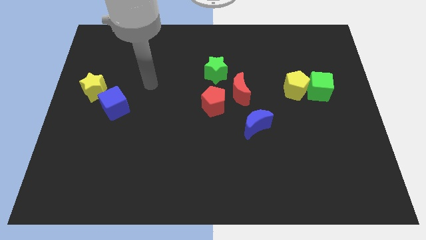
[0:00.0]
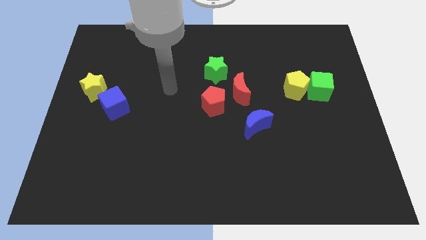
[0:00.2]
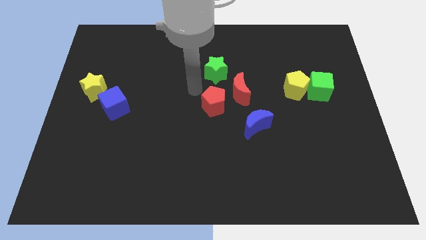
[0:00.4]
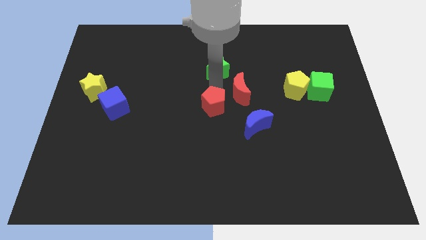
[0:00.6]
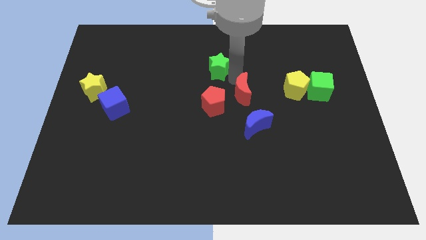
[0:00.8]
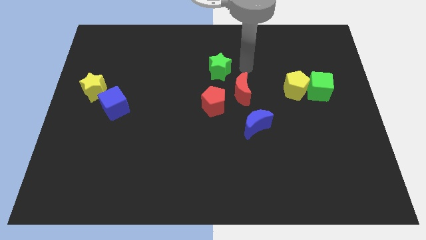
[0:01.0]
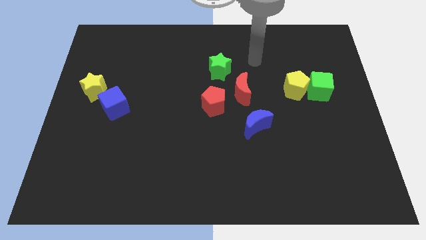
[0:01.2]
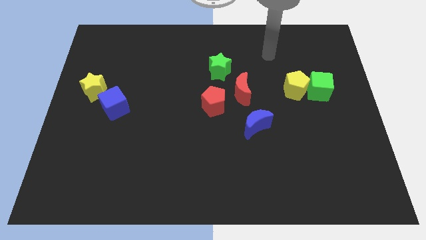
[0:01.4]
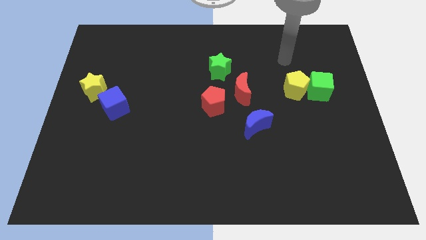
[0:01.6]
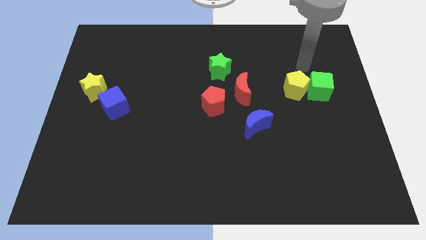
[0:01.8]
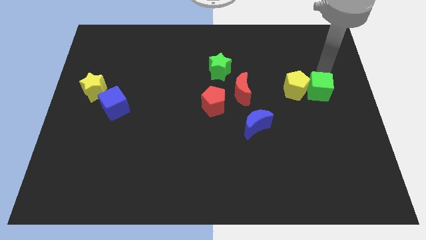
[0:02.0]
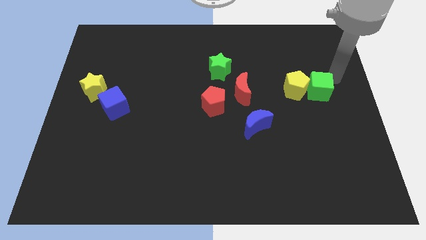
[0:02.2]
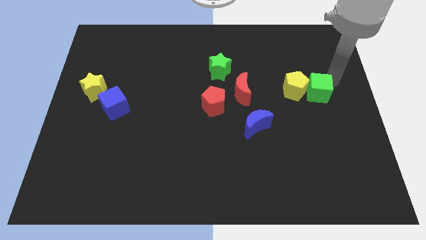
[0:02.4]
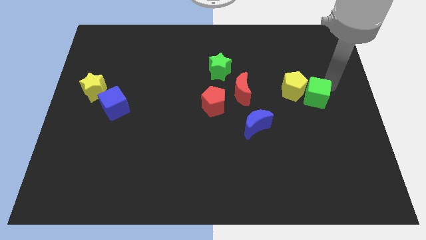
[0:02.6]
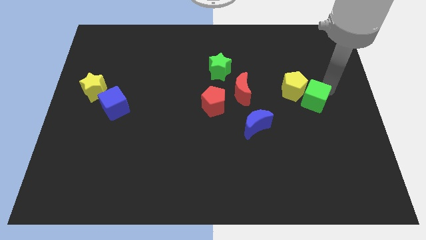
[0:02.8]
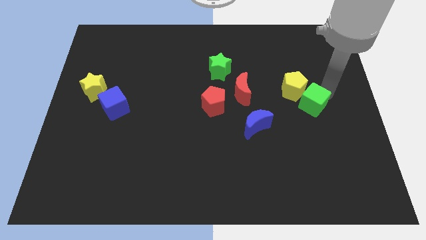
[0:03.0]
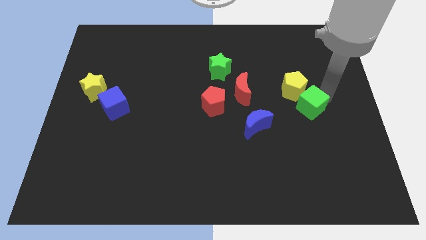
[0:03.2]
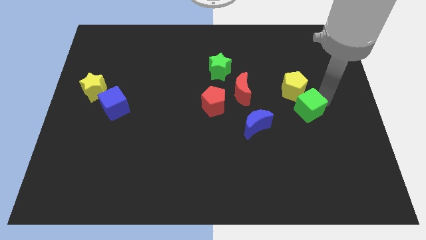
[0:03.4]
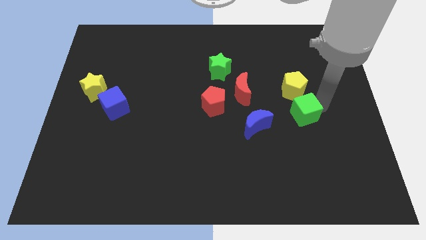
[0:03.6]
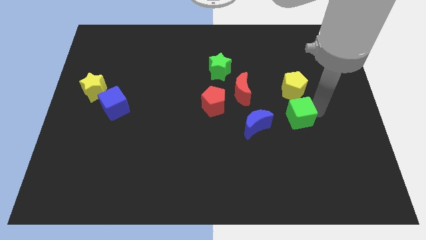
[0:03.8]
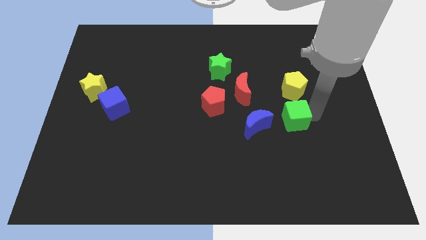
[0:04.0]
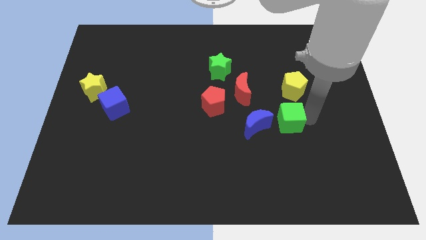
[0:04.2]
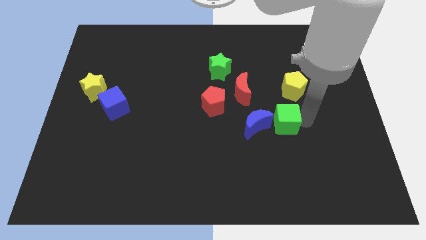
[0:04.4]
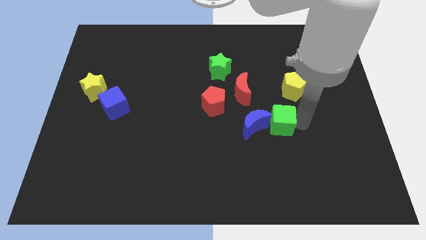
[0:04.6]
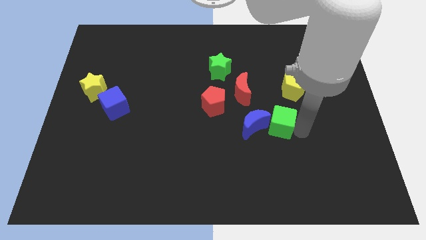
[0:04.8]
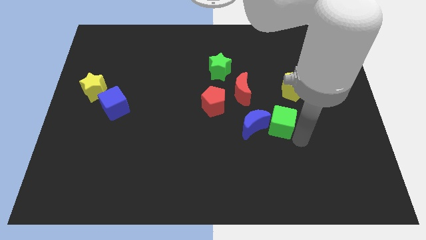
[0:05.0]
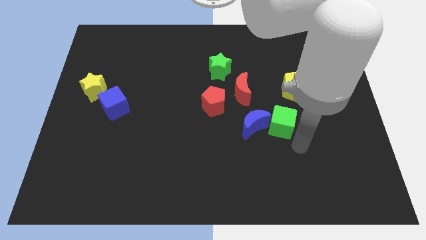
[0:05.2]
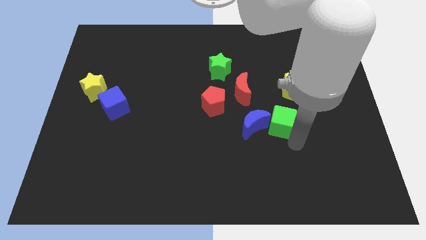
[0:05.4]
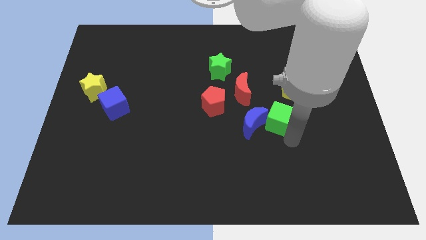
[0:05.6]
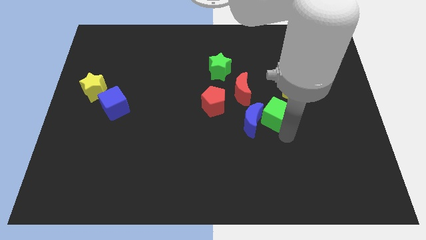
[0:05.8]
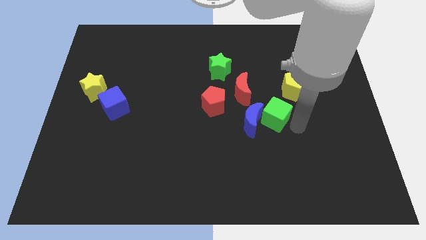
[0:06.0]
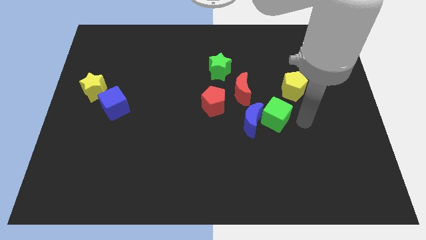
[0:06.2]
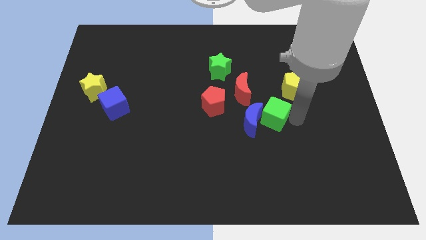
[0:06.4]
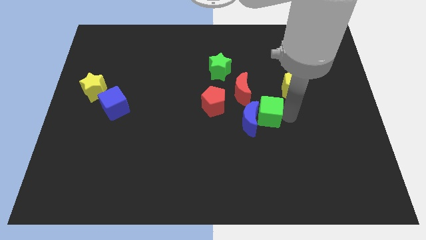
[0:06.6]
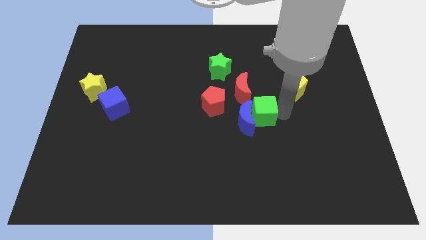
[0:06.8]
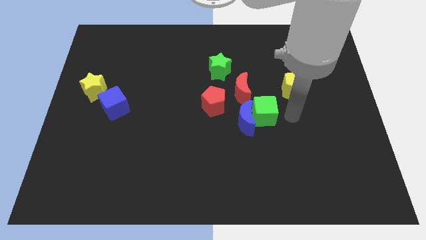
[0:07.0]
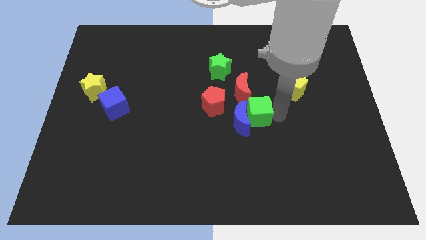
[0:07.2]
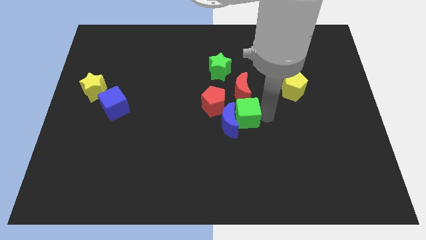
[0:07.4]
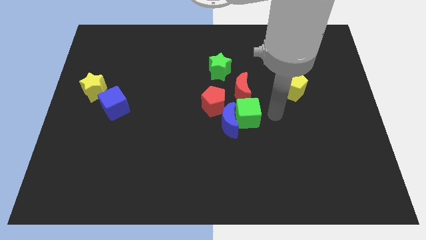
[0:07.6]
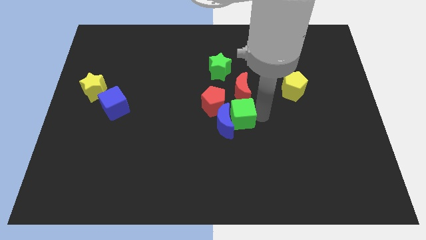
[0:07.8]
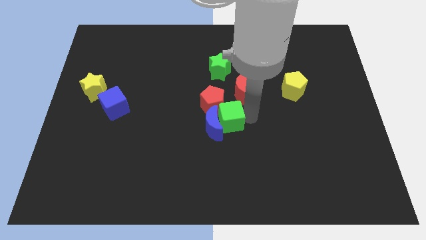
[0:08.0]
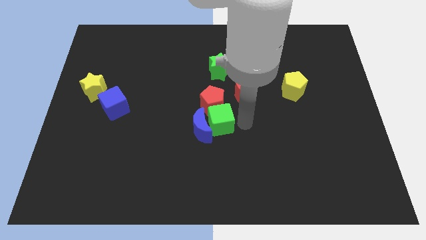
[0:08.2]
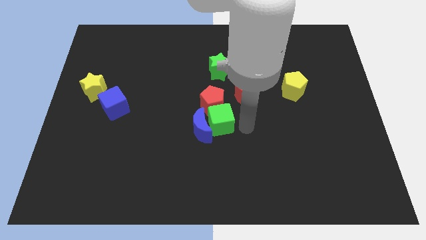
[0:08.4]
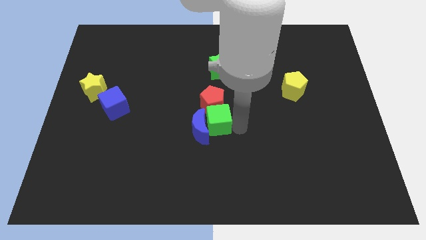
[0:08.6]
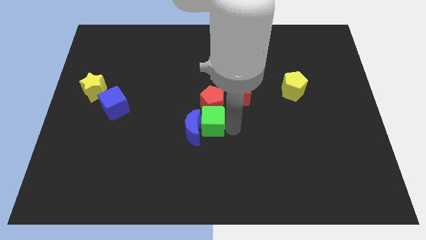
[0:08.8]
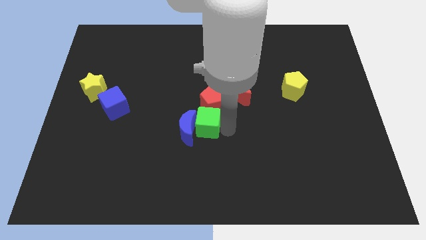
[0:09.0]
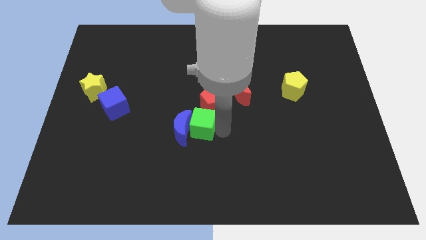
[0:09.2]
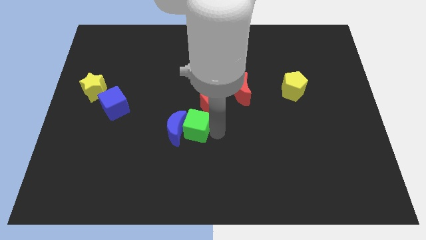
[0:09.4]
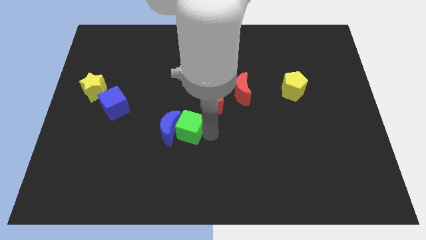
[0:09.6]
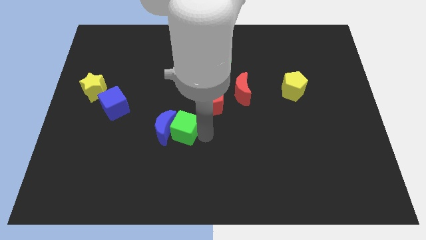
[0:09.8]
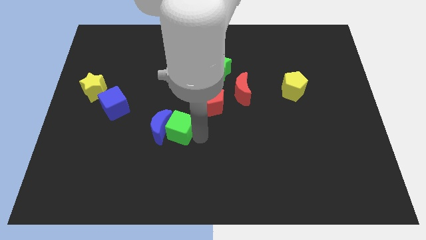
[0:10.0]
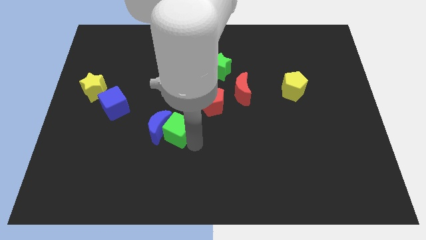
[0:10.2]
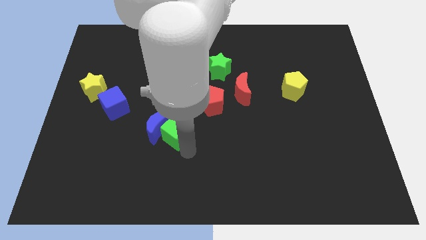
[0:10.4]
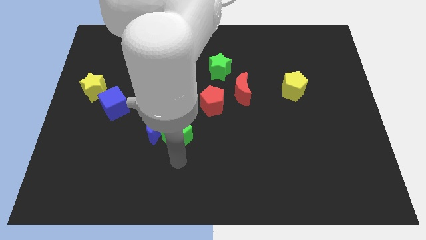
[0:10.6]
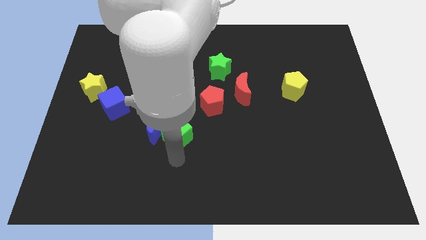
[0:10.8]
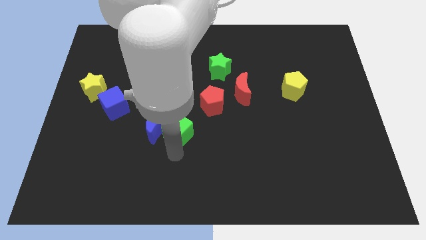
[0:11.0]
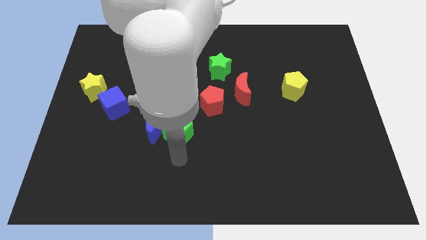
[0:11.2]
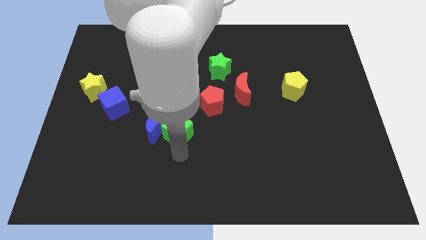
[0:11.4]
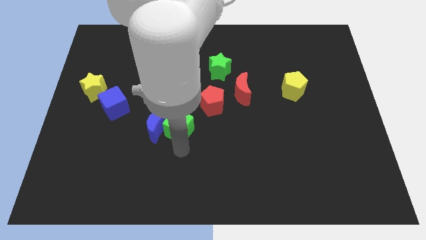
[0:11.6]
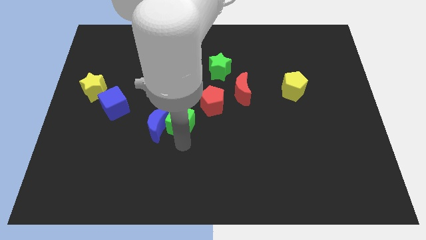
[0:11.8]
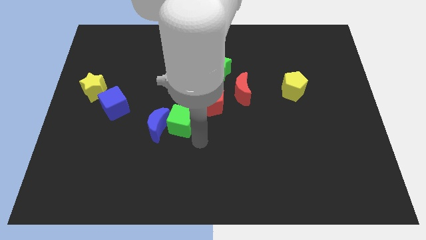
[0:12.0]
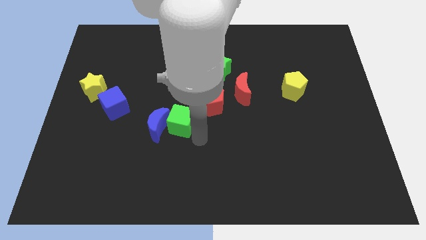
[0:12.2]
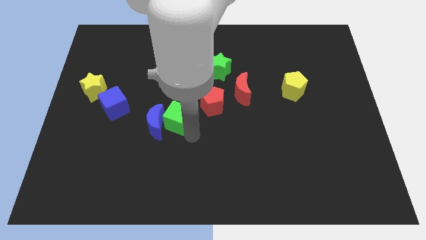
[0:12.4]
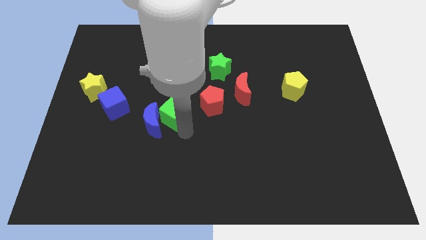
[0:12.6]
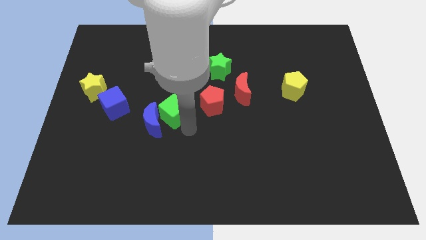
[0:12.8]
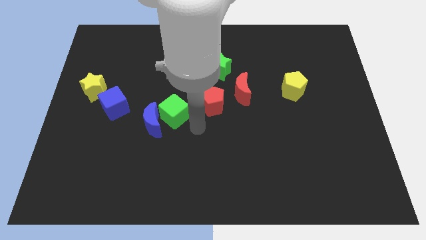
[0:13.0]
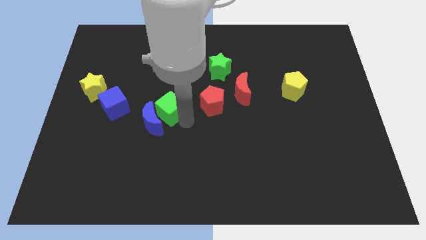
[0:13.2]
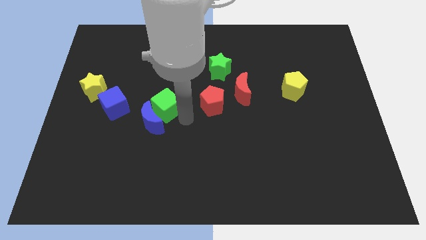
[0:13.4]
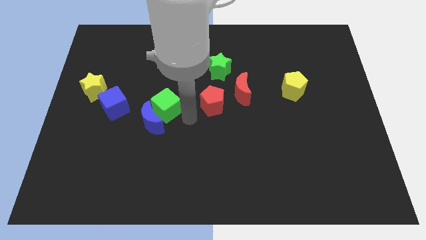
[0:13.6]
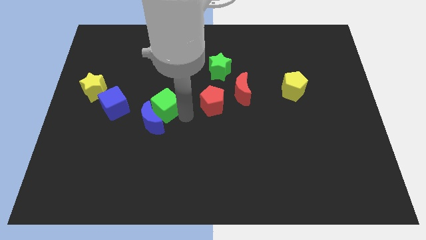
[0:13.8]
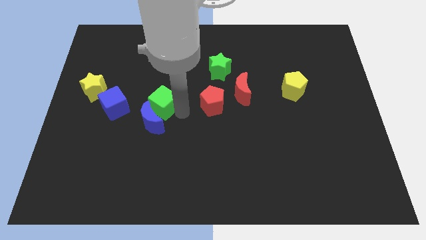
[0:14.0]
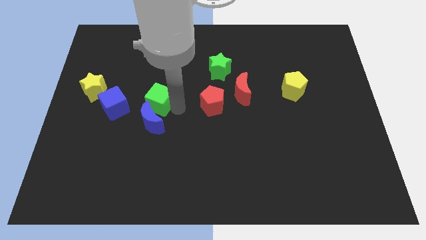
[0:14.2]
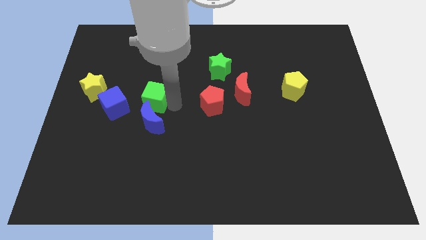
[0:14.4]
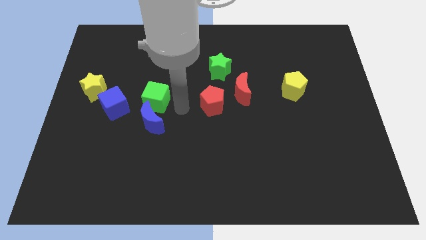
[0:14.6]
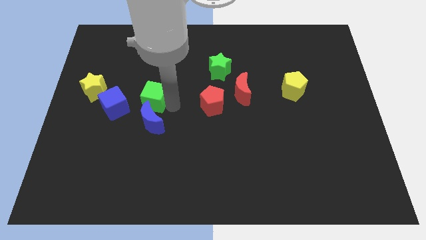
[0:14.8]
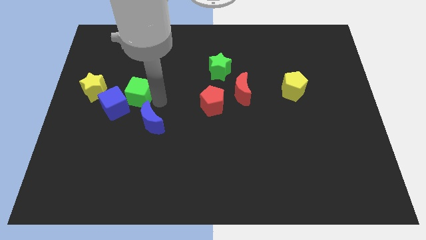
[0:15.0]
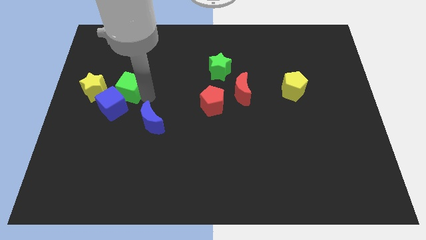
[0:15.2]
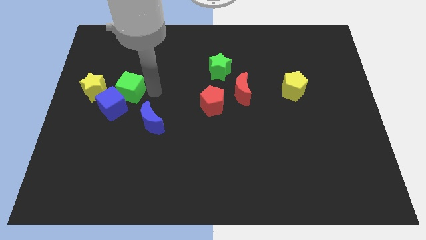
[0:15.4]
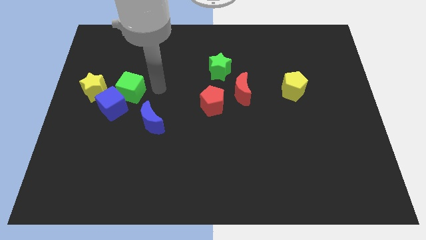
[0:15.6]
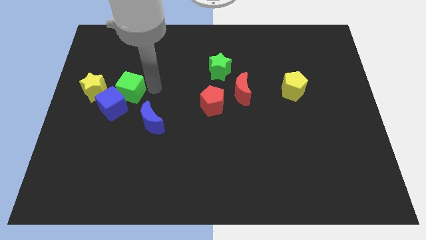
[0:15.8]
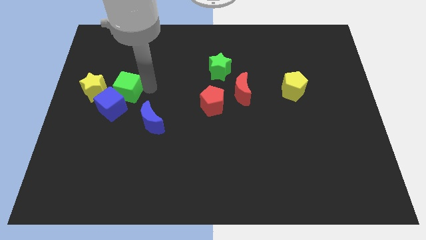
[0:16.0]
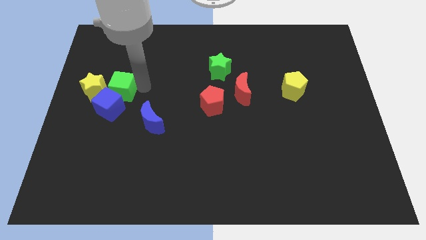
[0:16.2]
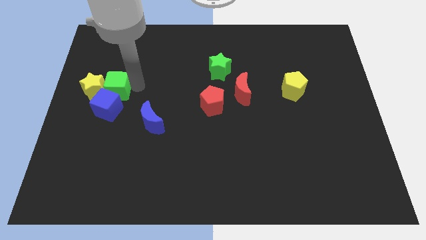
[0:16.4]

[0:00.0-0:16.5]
slide the green cube to the yellow star
